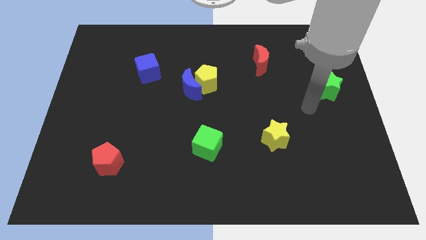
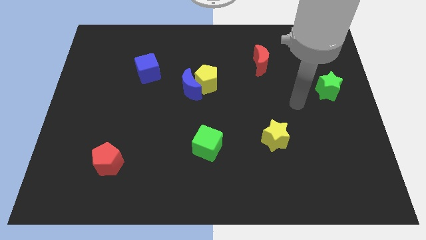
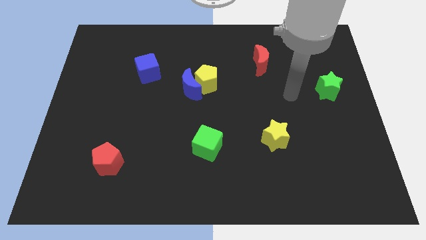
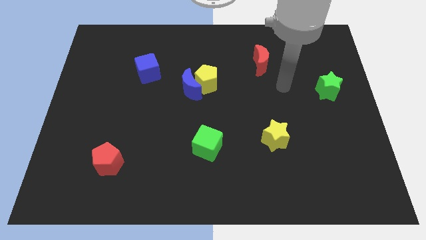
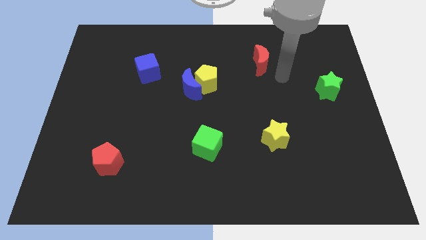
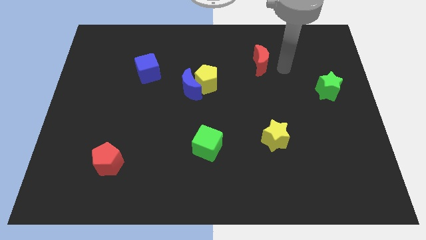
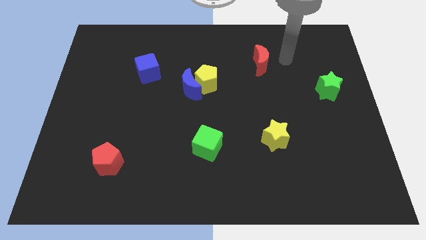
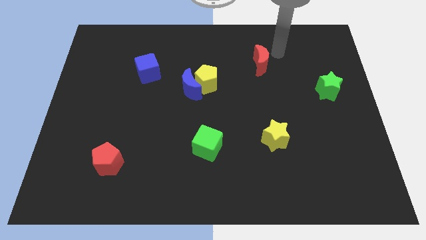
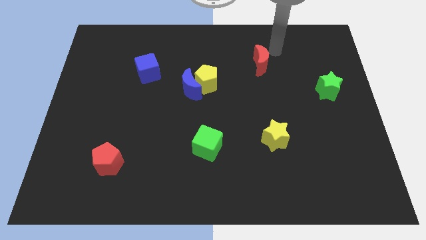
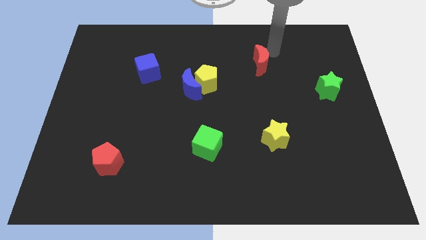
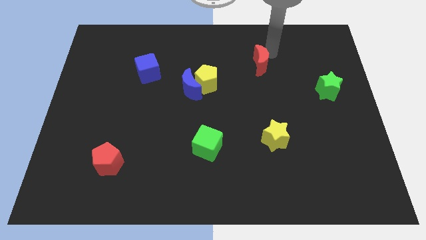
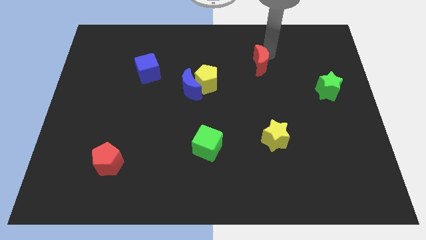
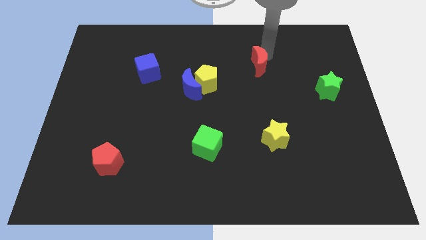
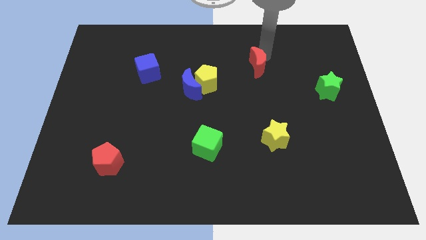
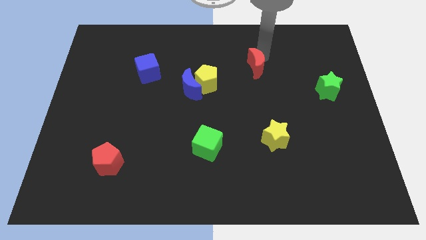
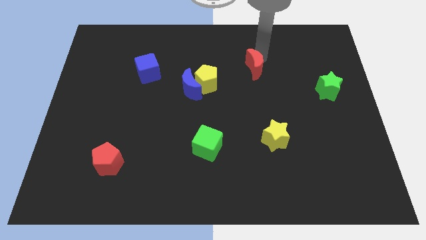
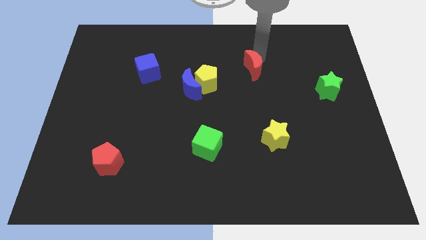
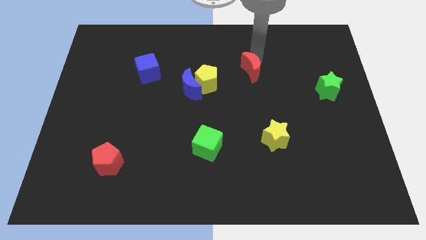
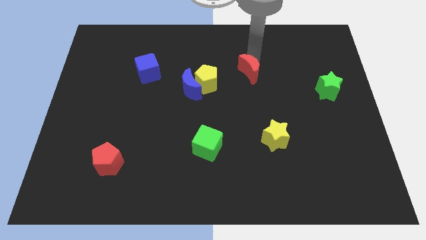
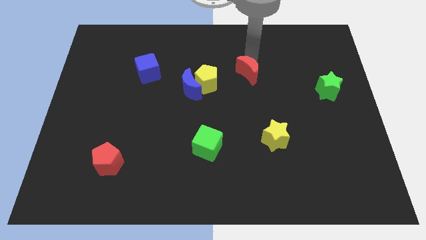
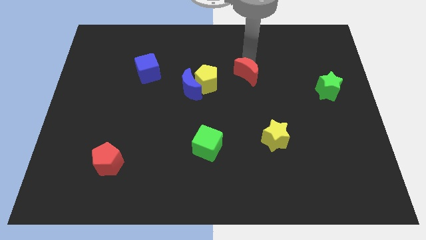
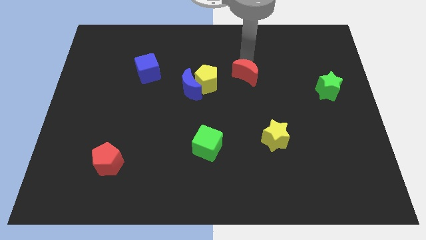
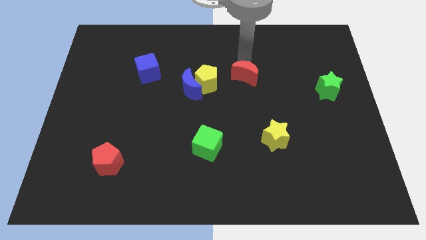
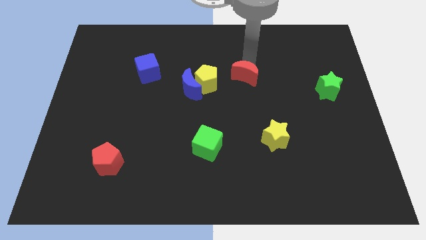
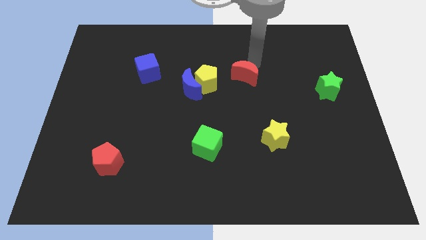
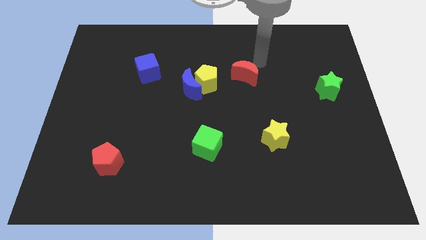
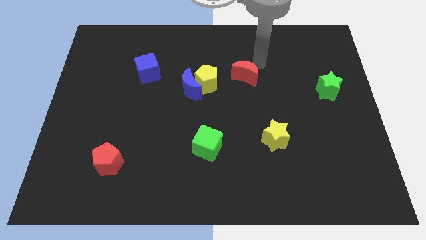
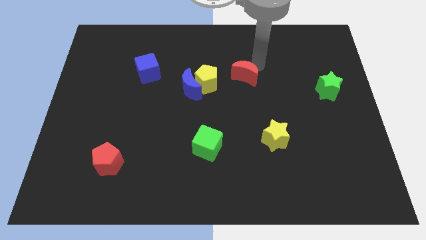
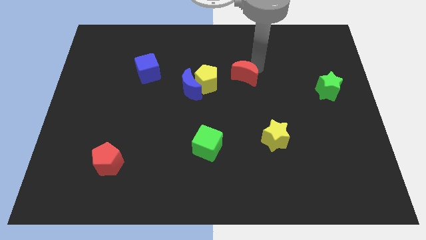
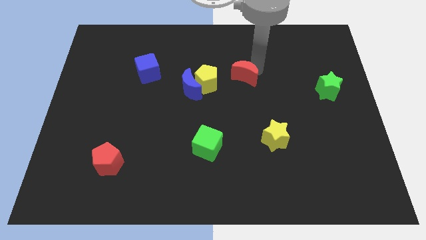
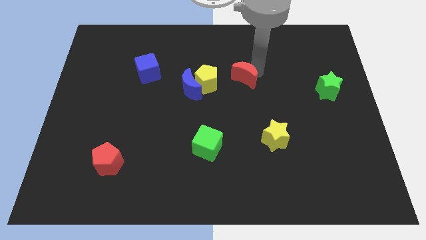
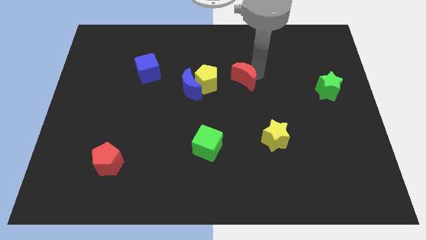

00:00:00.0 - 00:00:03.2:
slide the red moon down and to the left a bit

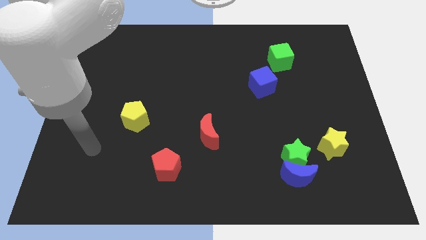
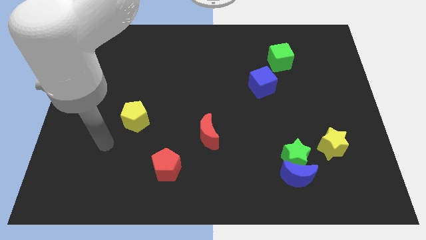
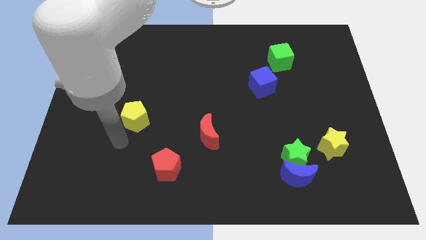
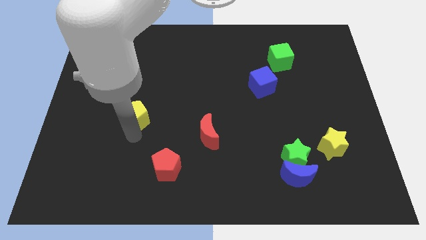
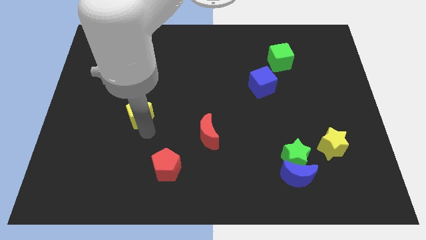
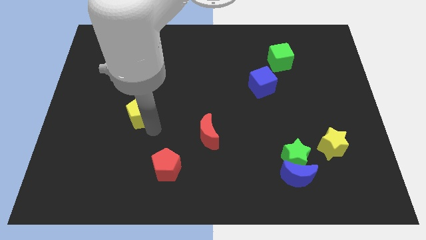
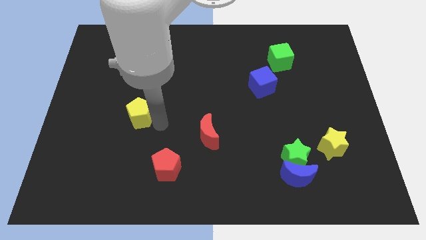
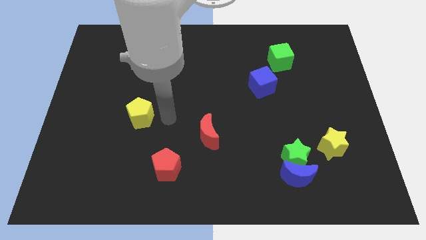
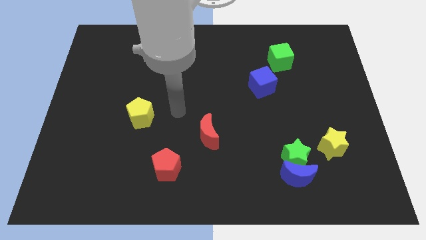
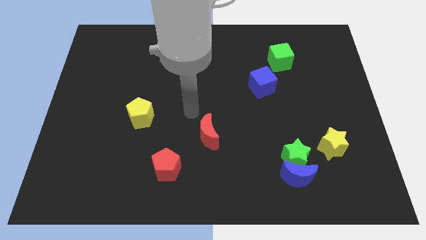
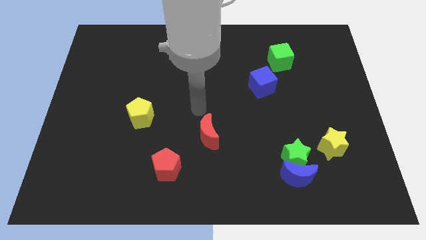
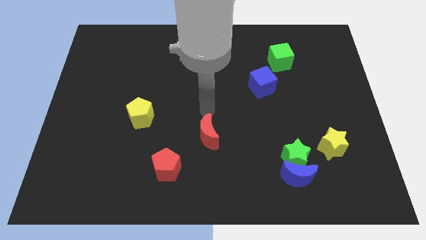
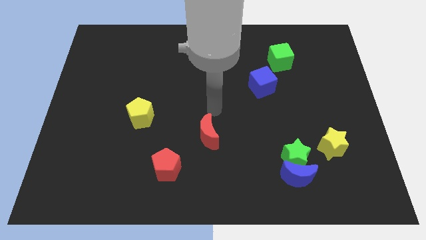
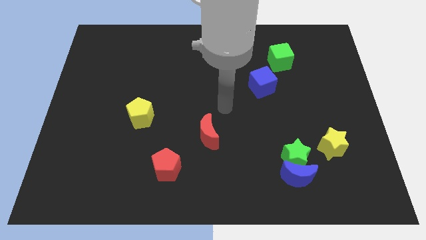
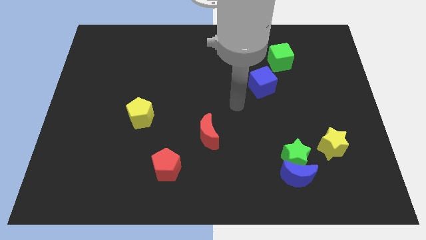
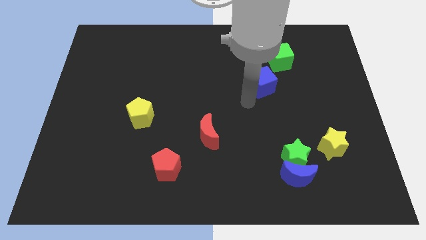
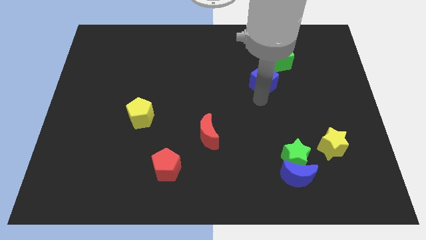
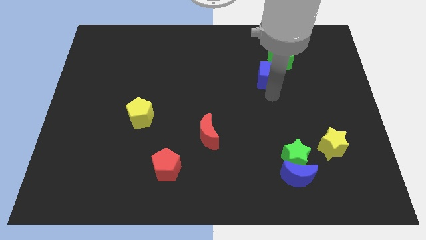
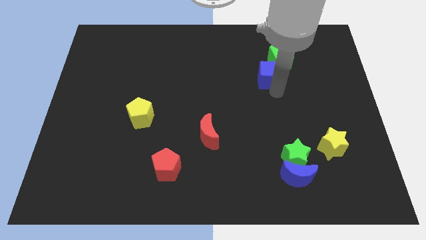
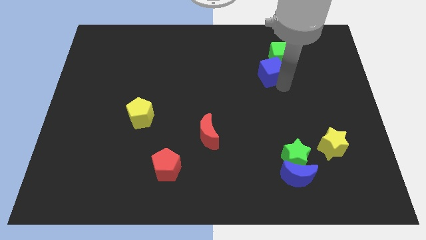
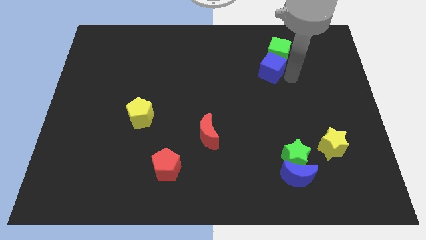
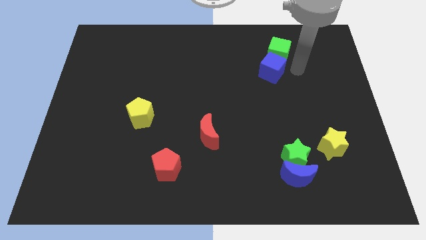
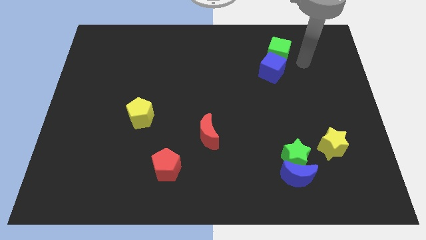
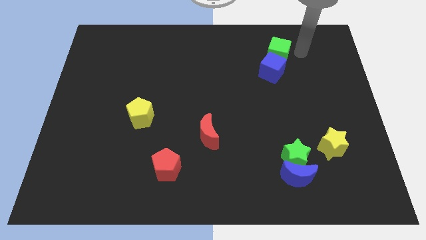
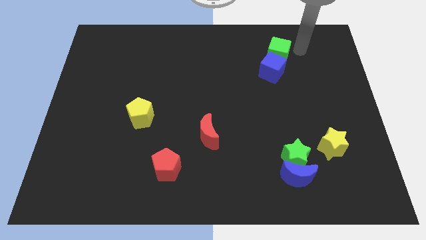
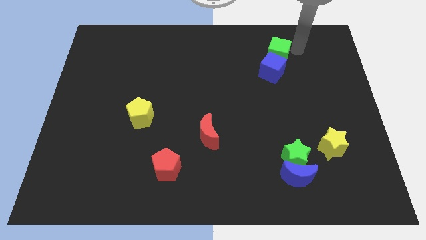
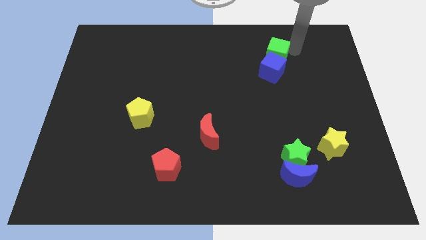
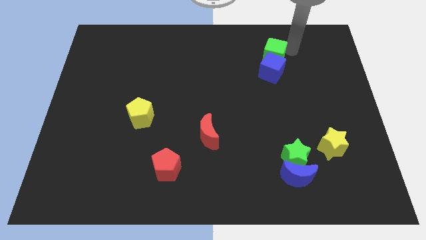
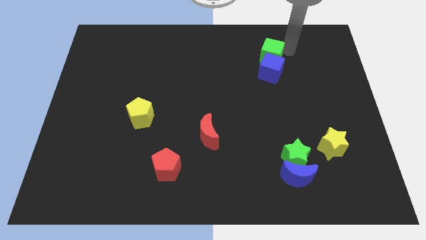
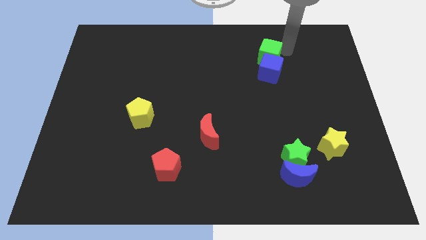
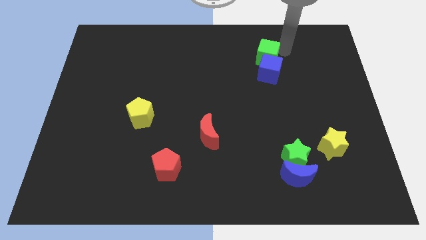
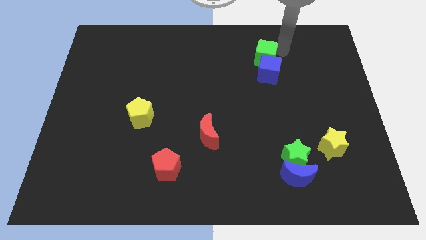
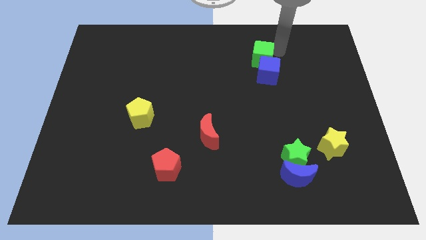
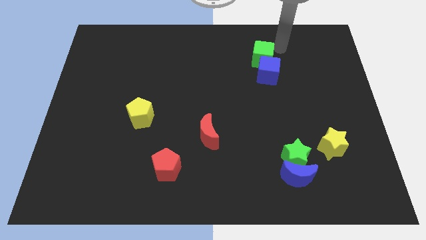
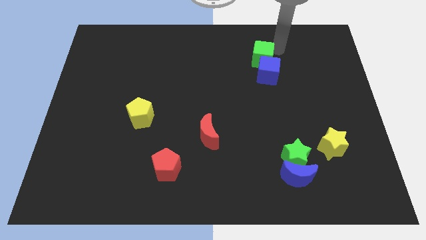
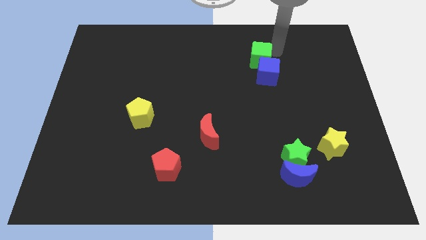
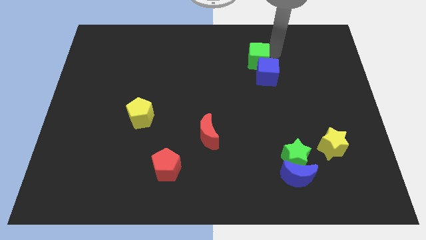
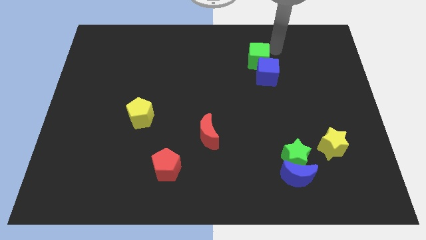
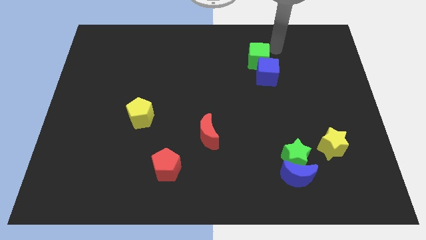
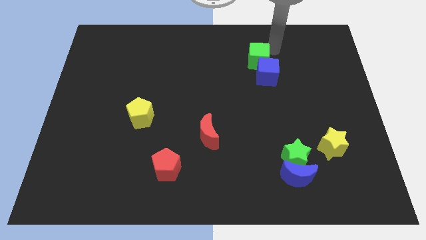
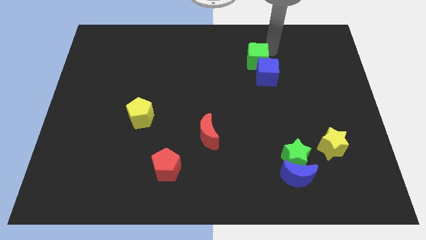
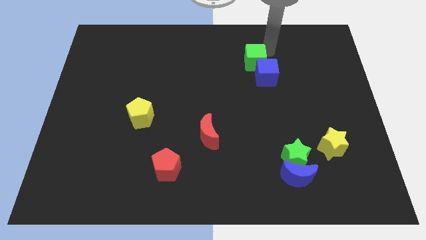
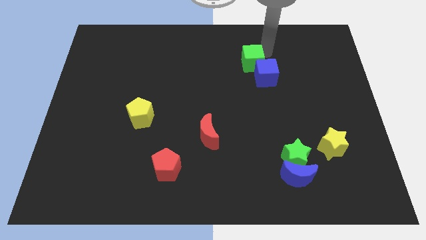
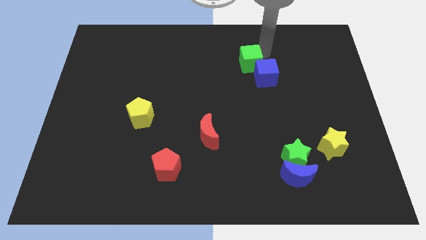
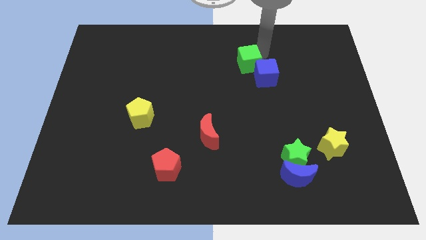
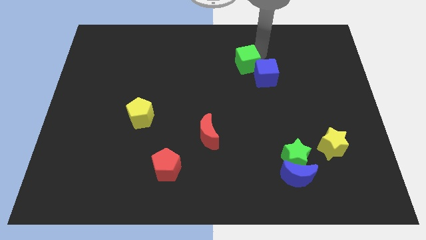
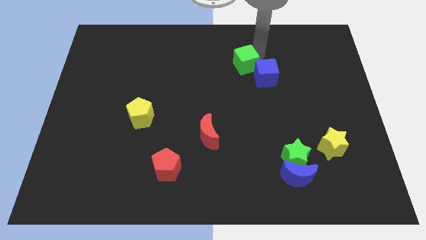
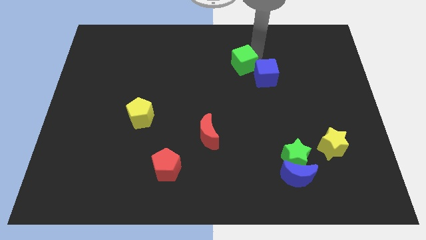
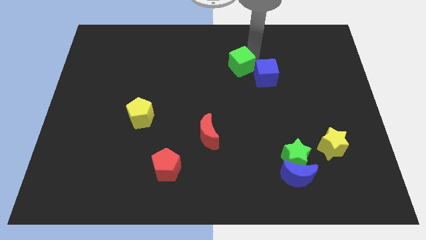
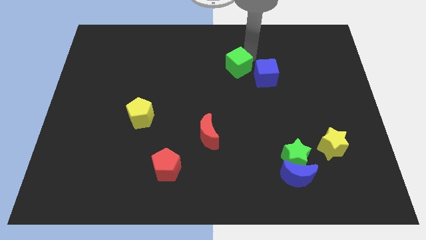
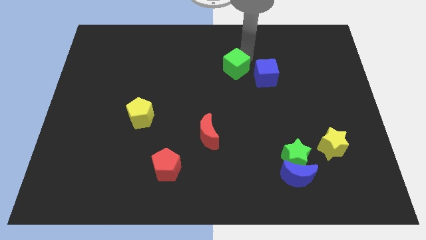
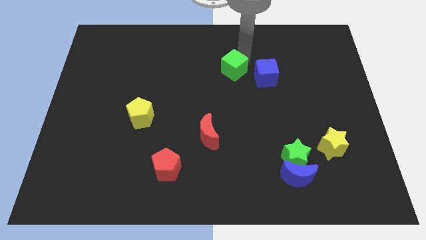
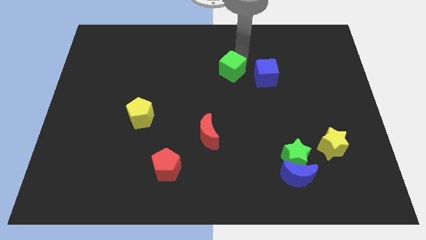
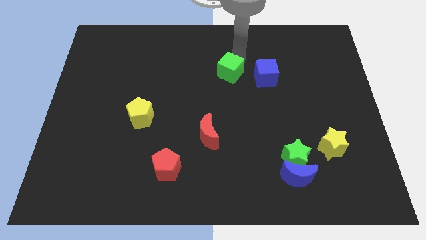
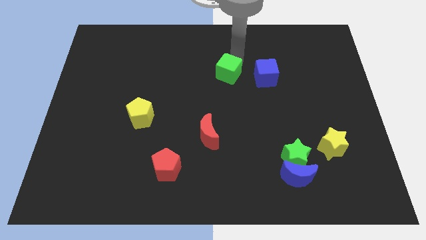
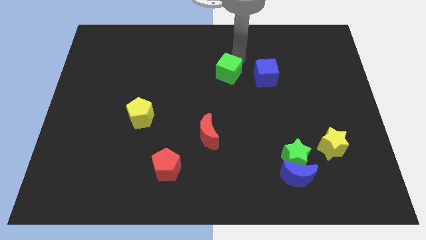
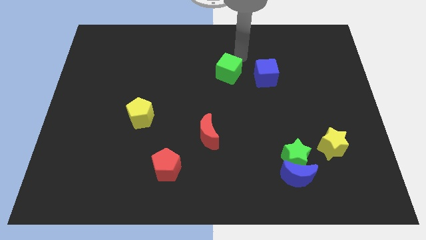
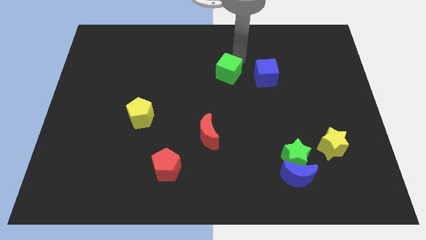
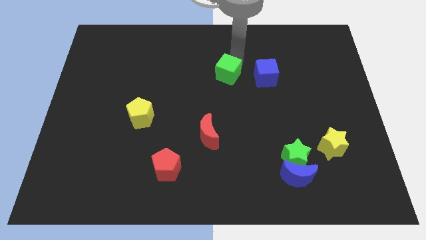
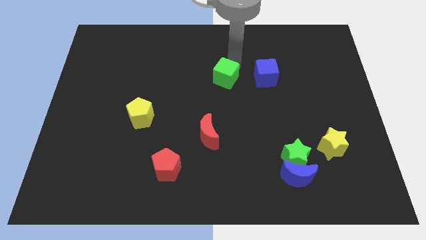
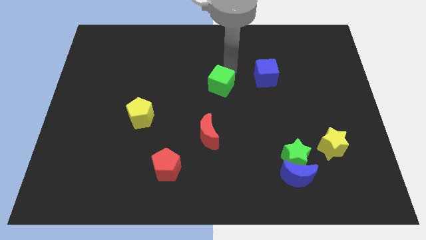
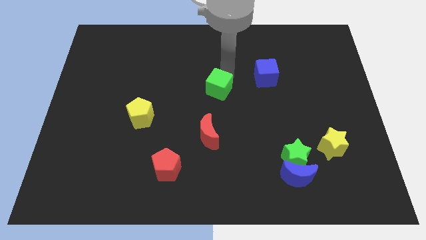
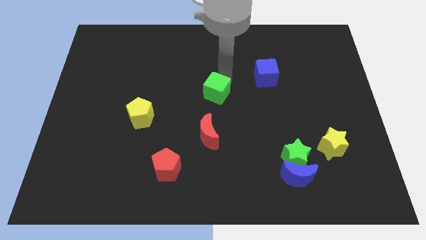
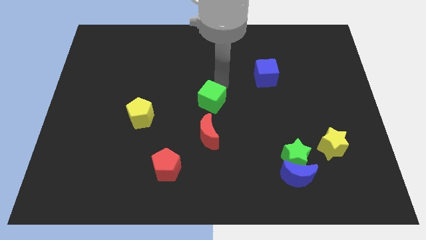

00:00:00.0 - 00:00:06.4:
move the green cube diagonally down and left
